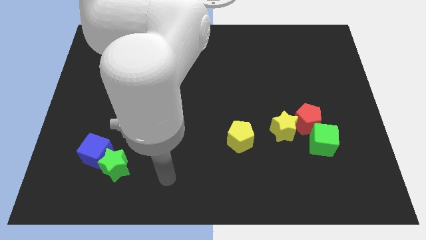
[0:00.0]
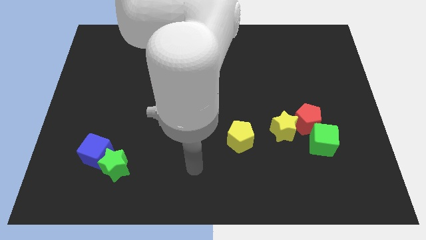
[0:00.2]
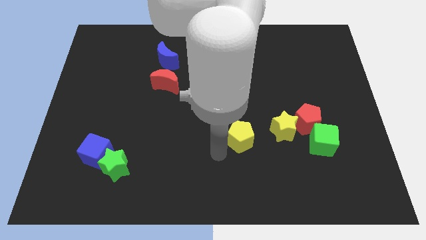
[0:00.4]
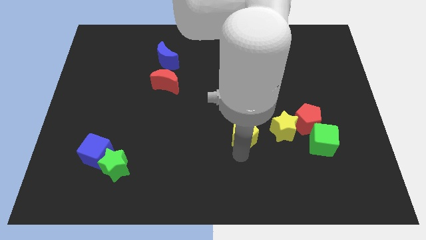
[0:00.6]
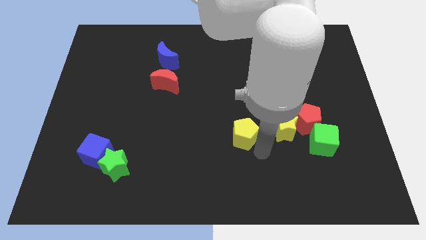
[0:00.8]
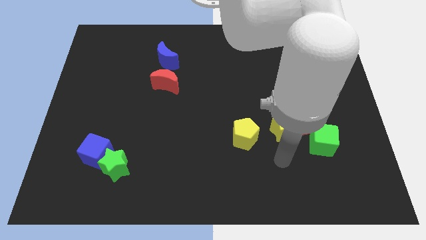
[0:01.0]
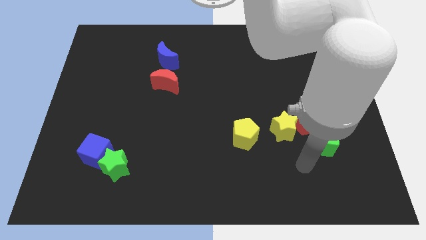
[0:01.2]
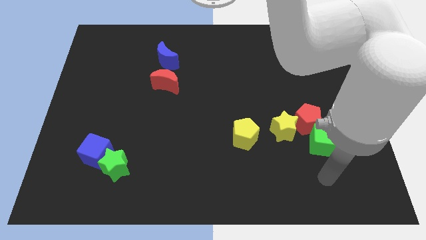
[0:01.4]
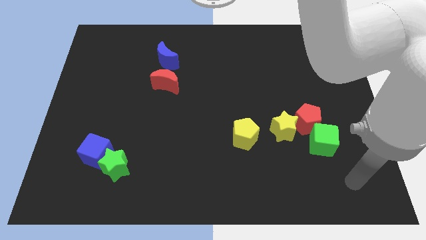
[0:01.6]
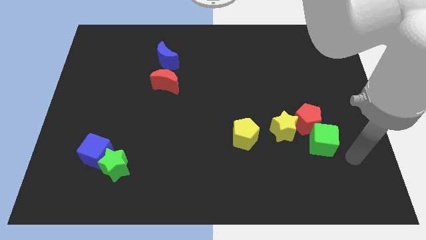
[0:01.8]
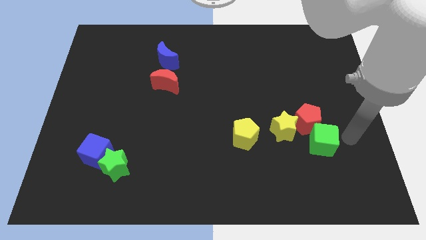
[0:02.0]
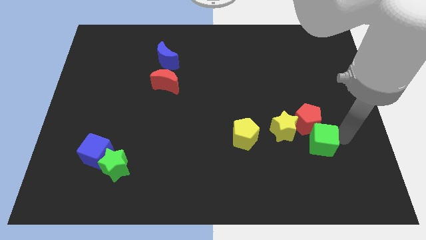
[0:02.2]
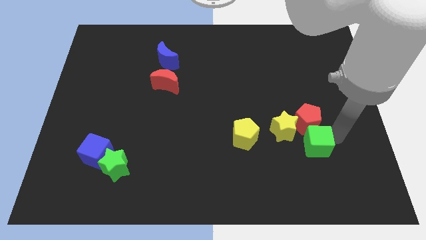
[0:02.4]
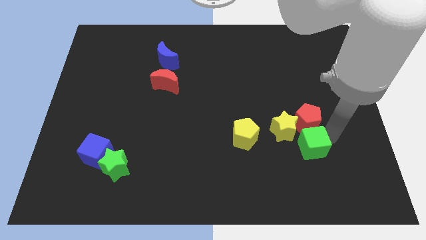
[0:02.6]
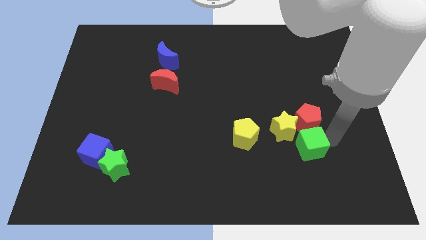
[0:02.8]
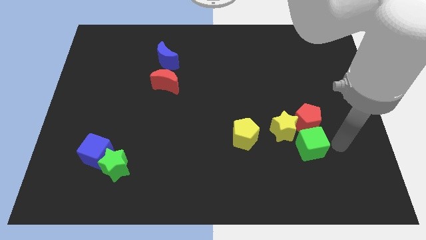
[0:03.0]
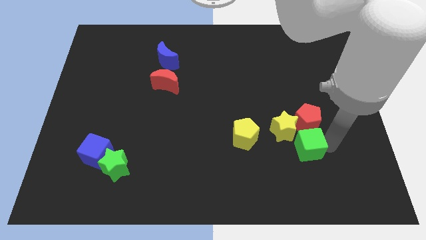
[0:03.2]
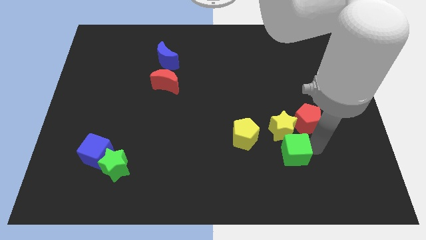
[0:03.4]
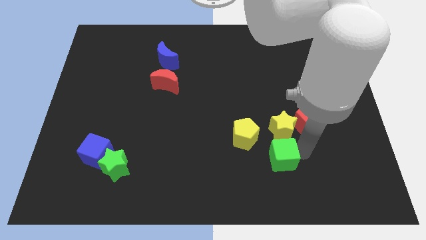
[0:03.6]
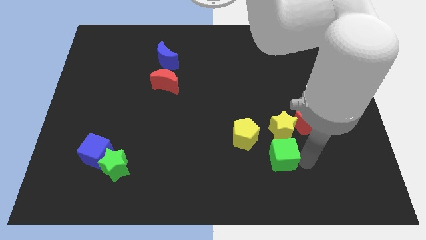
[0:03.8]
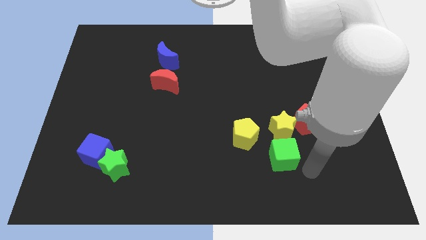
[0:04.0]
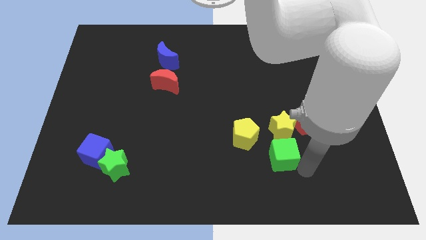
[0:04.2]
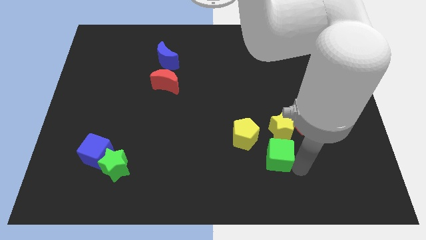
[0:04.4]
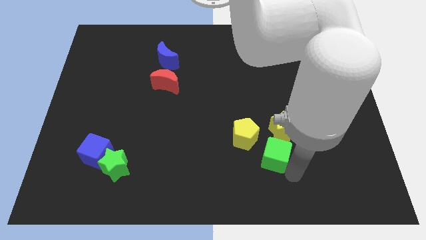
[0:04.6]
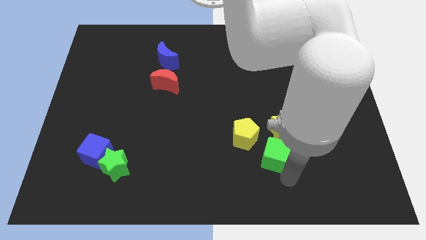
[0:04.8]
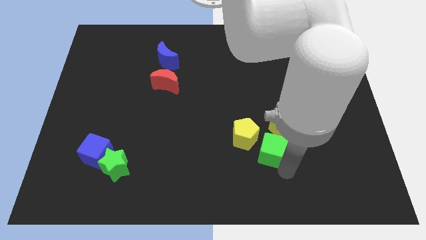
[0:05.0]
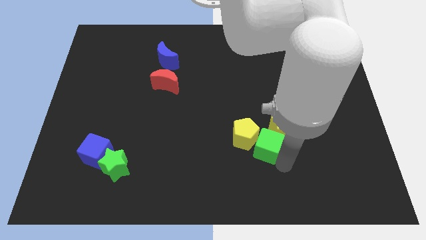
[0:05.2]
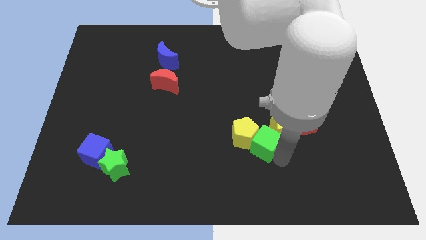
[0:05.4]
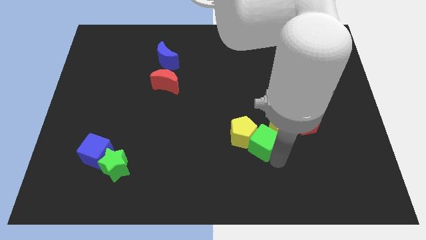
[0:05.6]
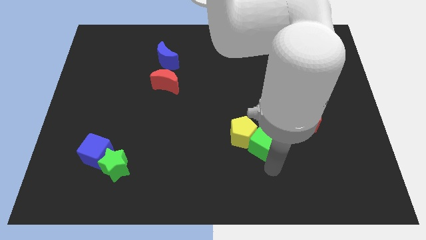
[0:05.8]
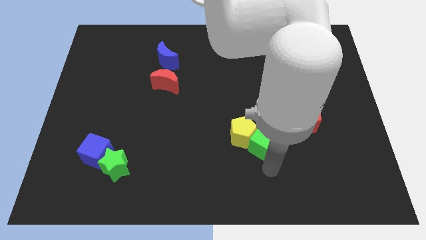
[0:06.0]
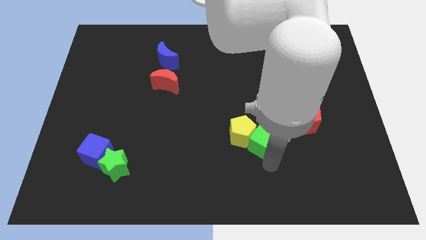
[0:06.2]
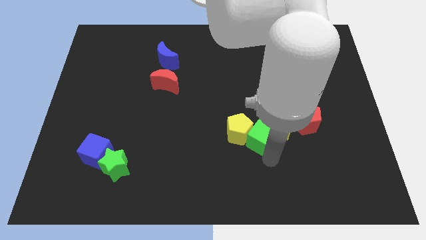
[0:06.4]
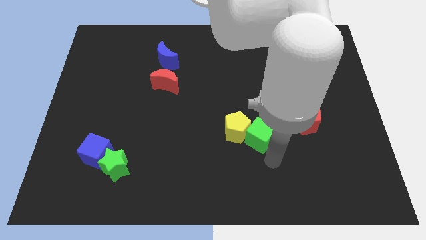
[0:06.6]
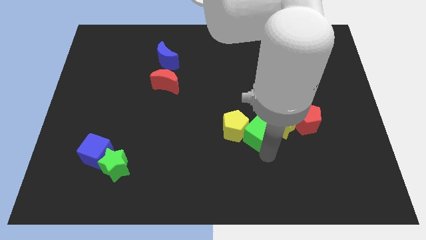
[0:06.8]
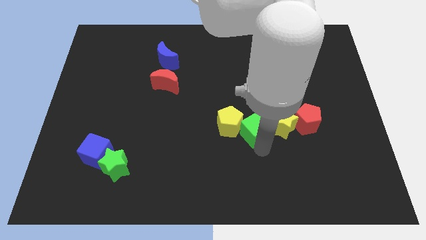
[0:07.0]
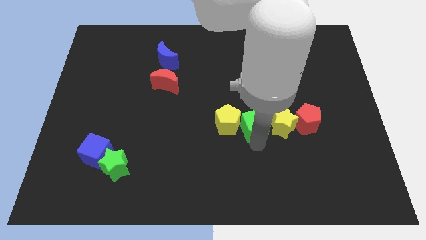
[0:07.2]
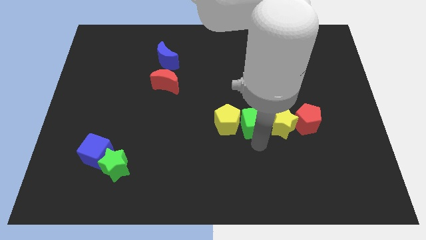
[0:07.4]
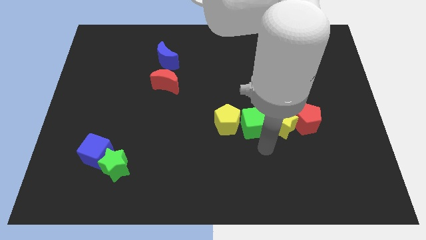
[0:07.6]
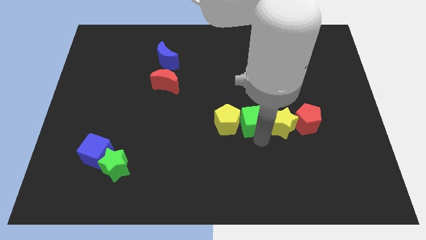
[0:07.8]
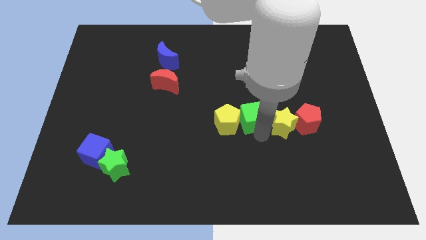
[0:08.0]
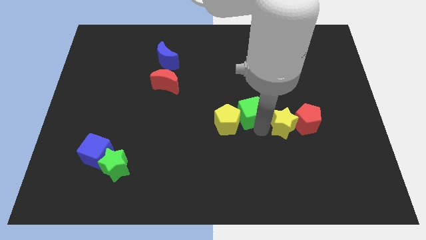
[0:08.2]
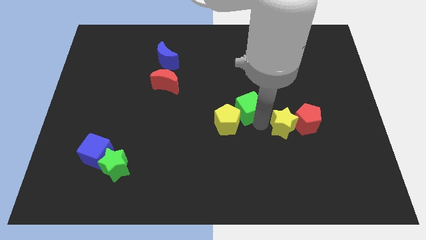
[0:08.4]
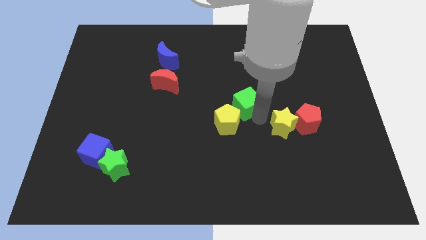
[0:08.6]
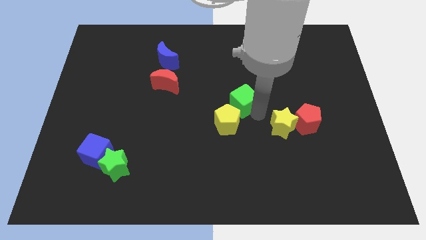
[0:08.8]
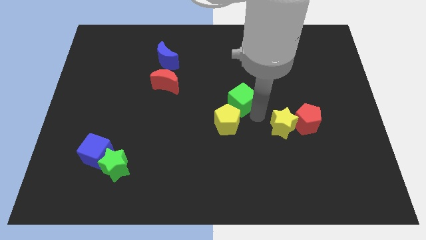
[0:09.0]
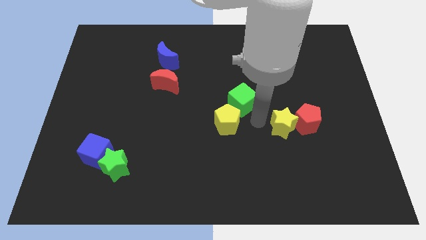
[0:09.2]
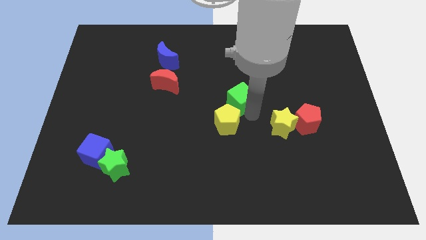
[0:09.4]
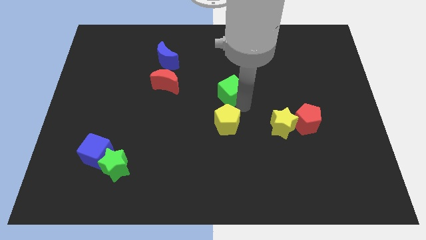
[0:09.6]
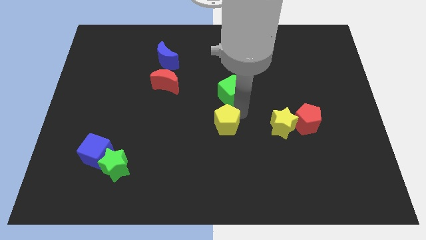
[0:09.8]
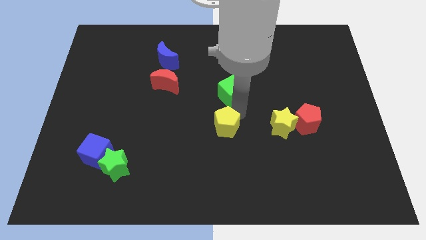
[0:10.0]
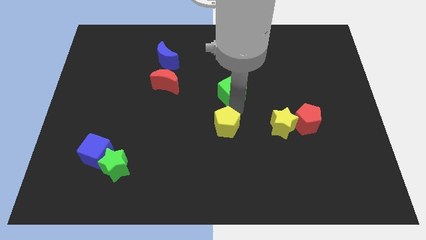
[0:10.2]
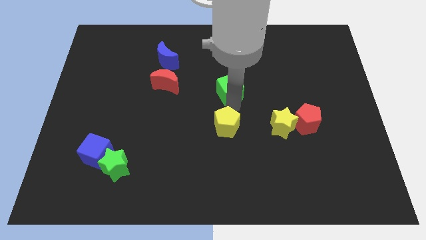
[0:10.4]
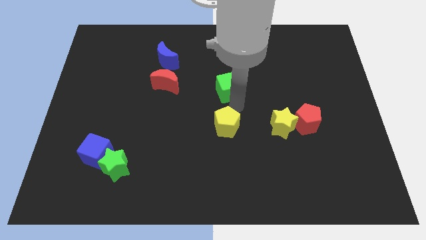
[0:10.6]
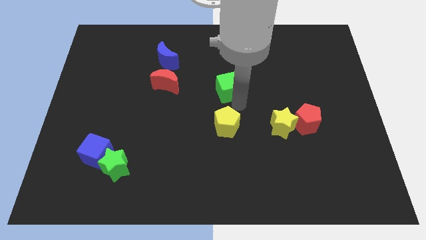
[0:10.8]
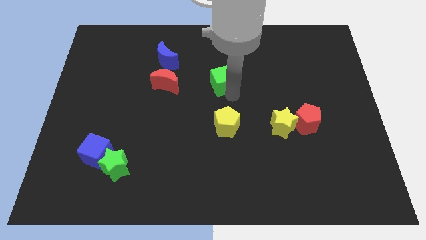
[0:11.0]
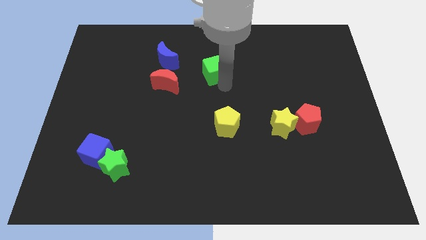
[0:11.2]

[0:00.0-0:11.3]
put the green cube right of the blue moon

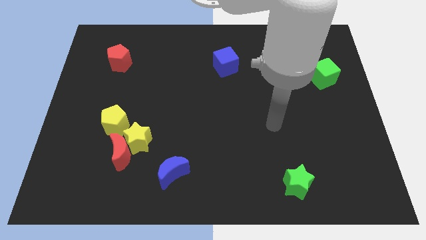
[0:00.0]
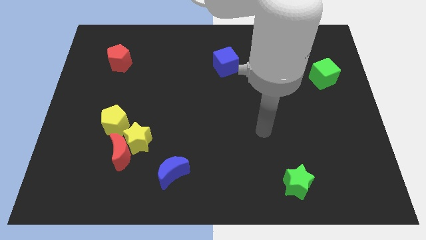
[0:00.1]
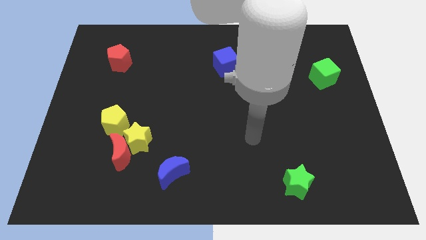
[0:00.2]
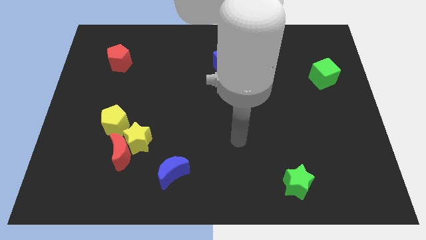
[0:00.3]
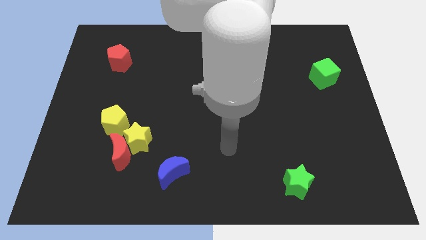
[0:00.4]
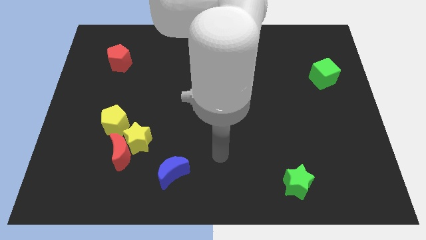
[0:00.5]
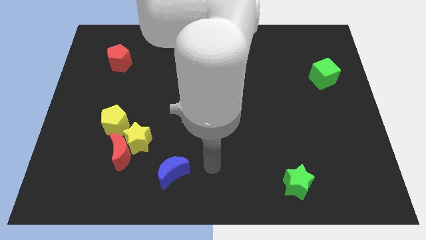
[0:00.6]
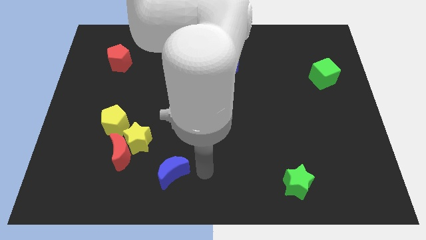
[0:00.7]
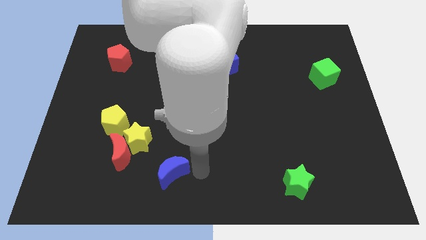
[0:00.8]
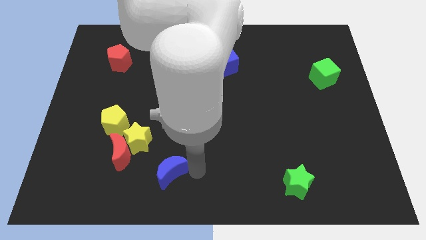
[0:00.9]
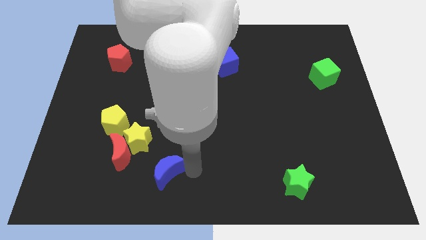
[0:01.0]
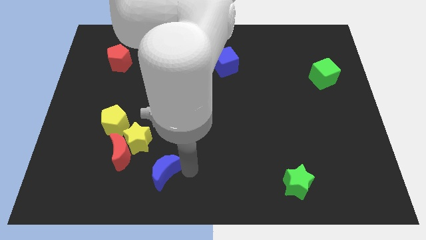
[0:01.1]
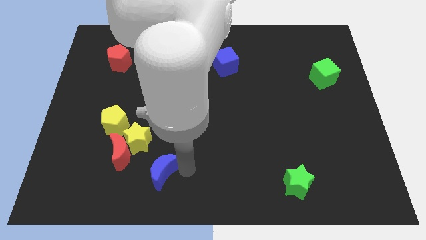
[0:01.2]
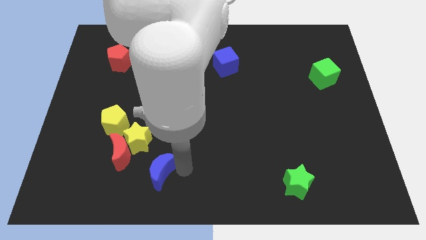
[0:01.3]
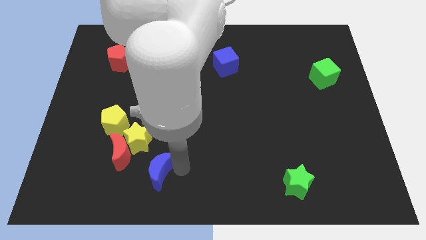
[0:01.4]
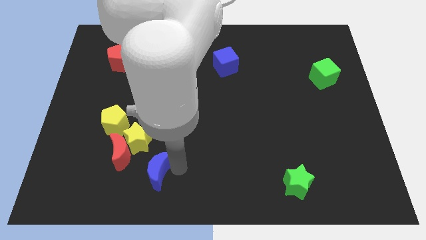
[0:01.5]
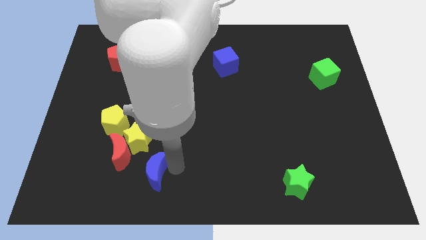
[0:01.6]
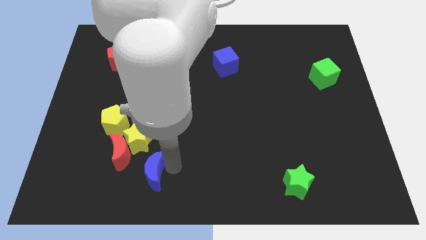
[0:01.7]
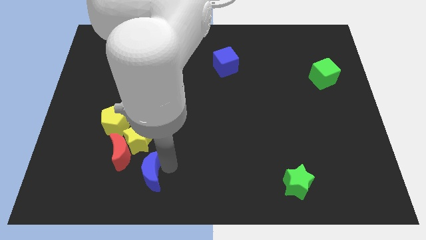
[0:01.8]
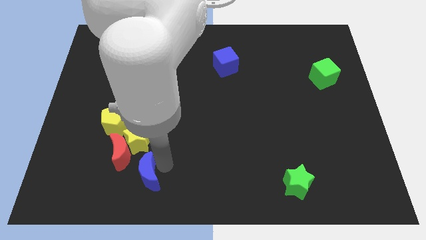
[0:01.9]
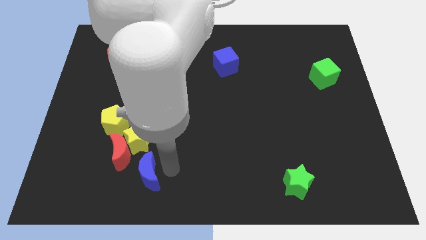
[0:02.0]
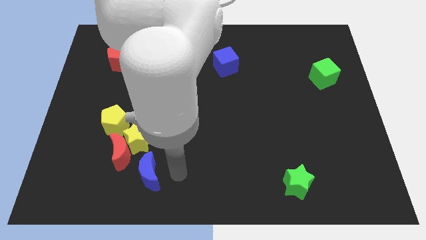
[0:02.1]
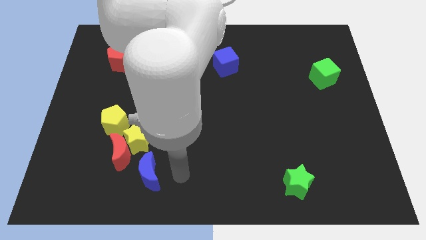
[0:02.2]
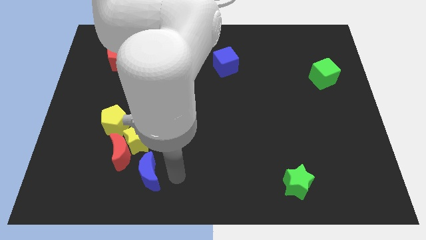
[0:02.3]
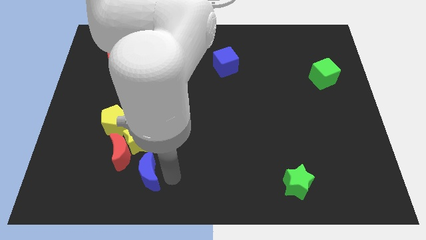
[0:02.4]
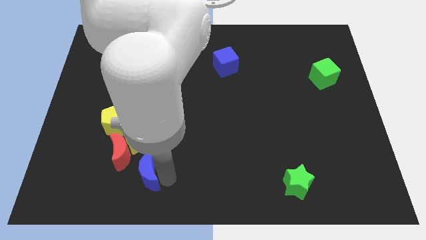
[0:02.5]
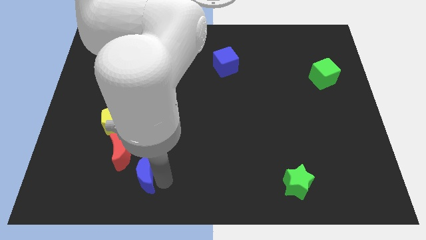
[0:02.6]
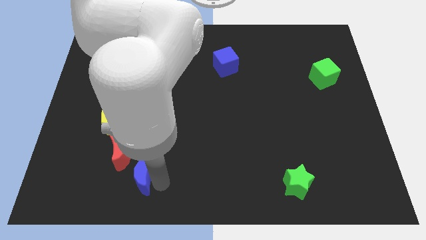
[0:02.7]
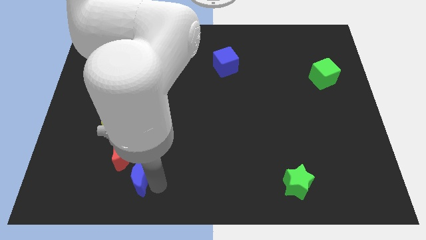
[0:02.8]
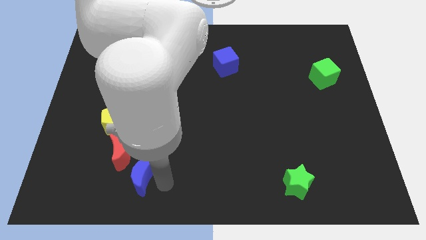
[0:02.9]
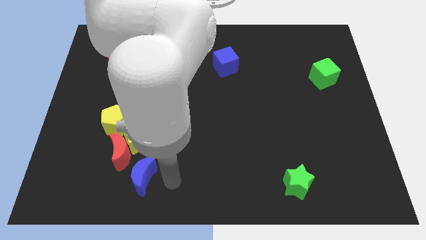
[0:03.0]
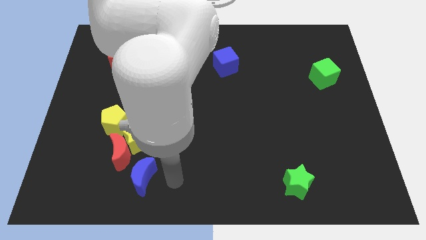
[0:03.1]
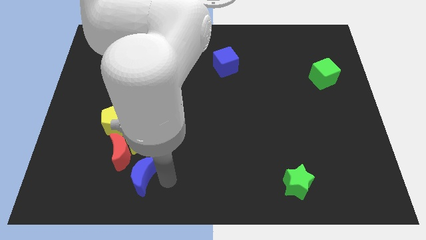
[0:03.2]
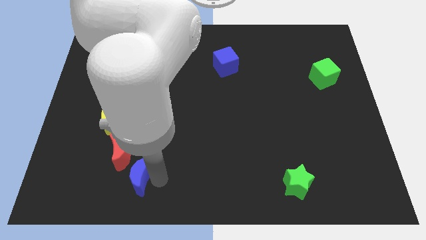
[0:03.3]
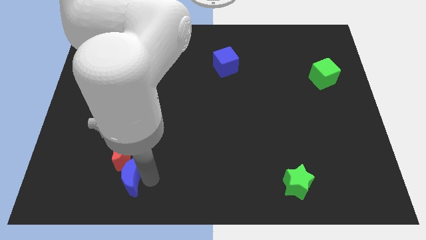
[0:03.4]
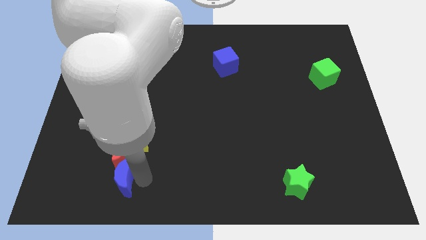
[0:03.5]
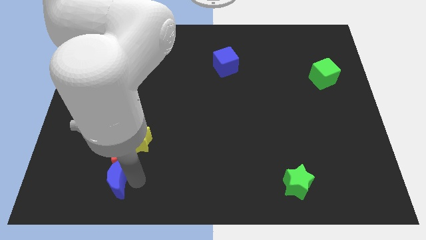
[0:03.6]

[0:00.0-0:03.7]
put the blue moon diagonally down and to the left of the red moon
